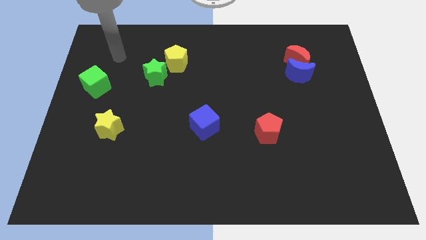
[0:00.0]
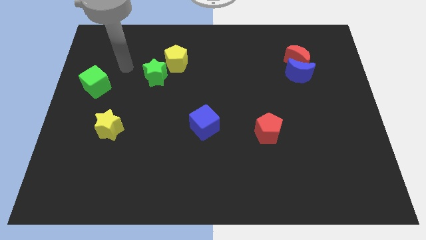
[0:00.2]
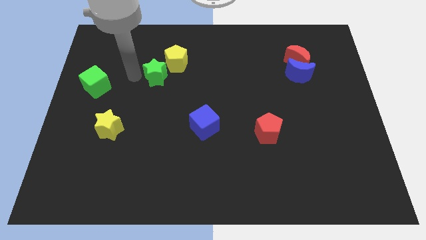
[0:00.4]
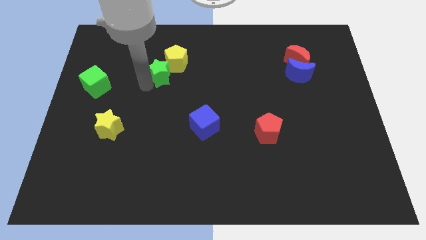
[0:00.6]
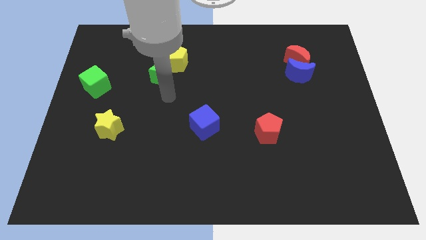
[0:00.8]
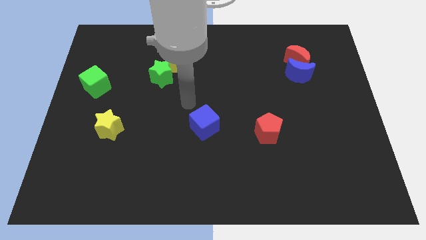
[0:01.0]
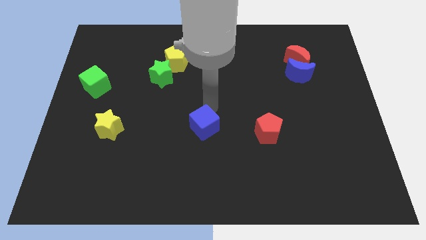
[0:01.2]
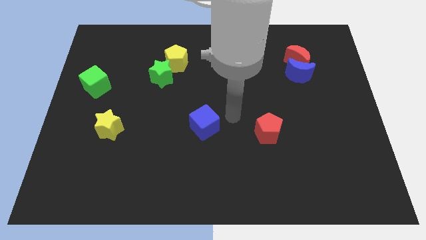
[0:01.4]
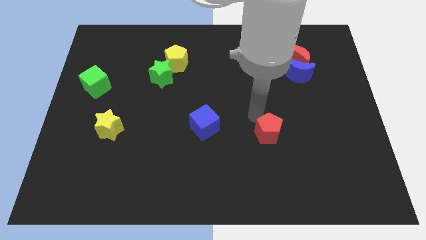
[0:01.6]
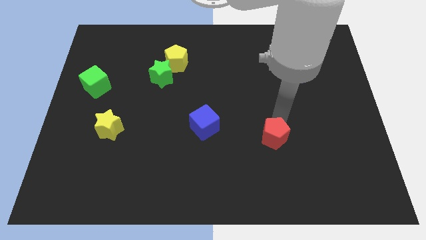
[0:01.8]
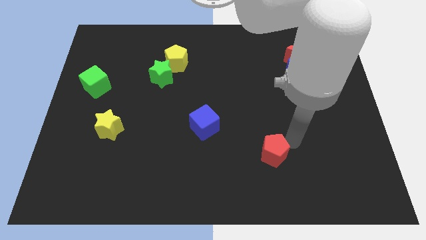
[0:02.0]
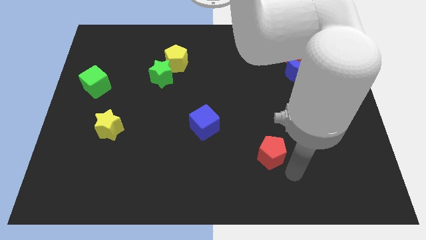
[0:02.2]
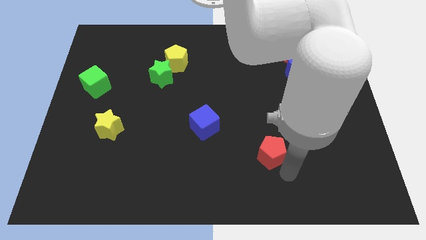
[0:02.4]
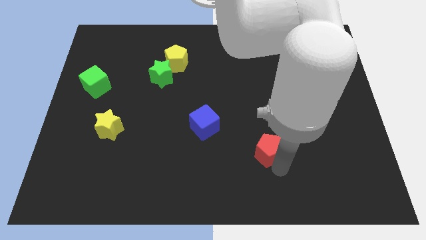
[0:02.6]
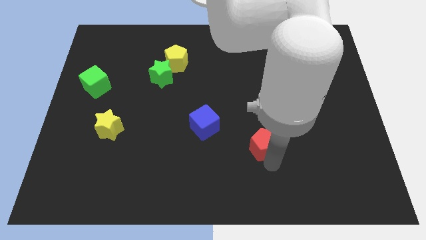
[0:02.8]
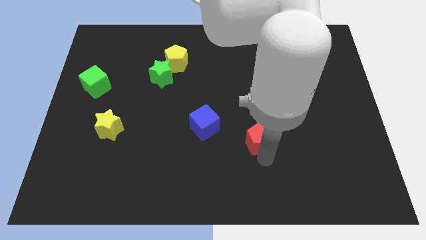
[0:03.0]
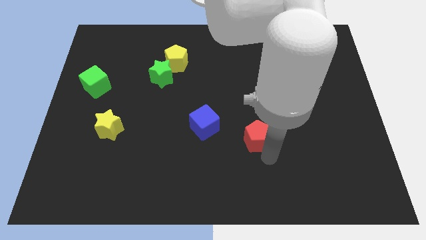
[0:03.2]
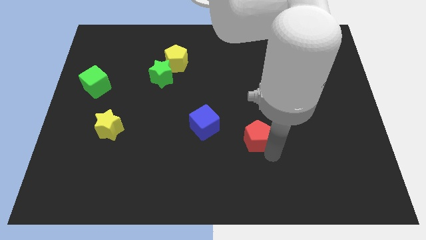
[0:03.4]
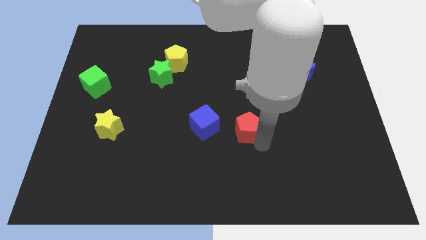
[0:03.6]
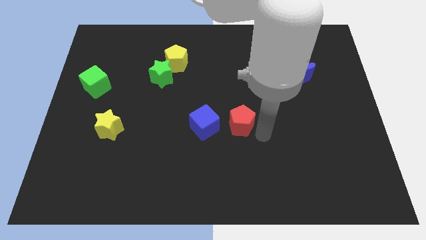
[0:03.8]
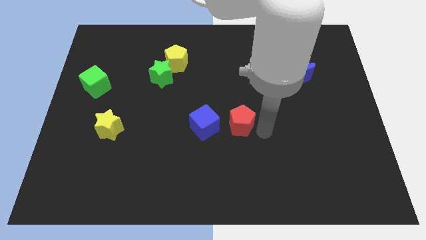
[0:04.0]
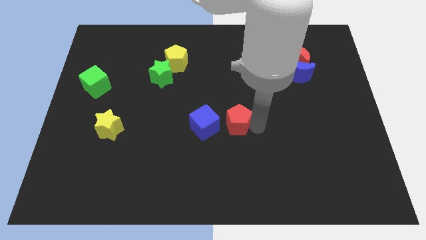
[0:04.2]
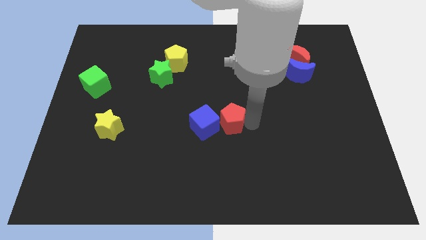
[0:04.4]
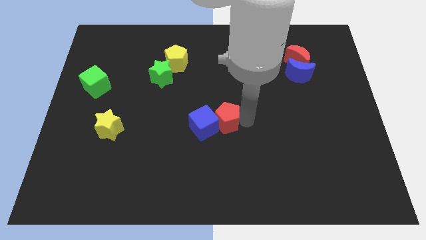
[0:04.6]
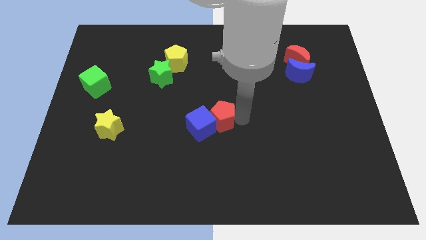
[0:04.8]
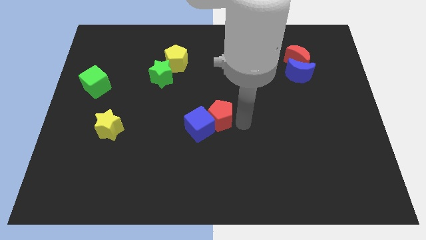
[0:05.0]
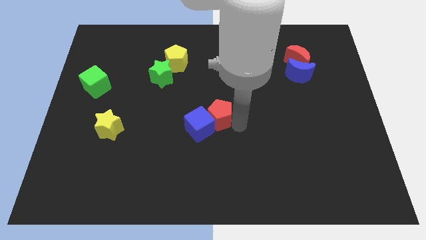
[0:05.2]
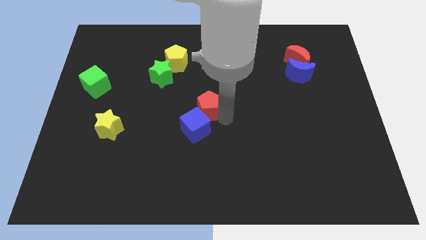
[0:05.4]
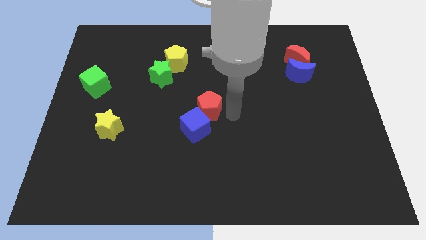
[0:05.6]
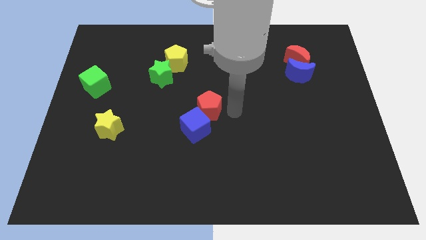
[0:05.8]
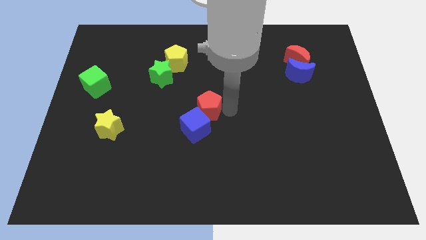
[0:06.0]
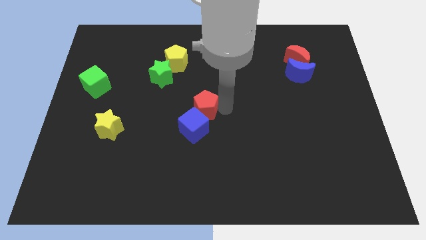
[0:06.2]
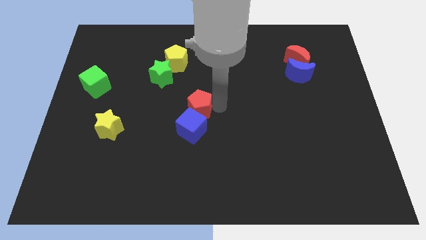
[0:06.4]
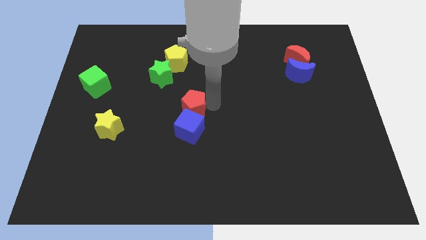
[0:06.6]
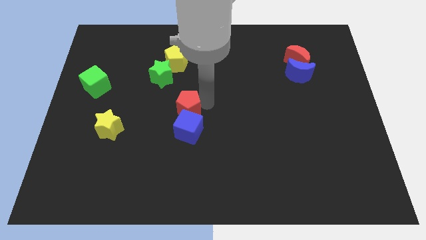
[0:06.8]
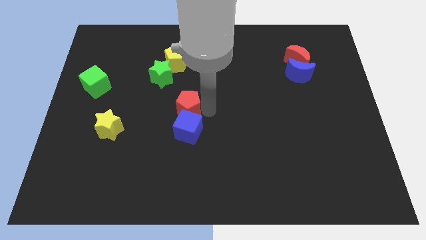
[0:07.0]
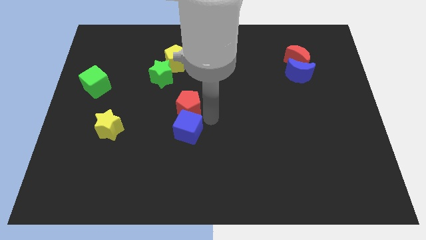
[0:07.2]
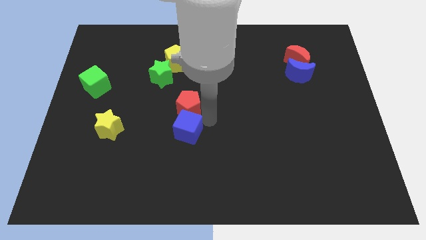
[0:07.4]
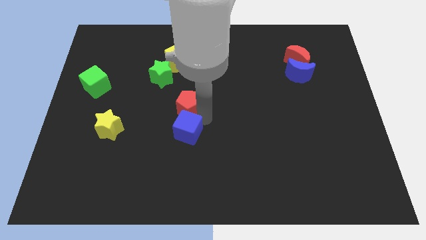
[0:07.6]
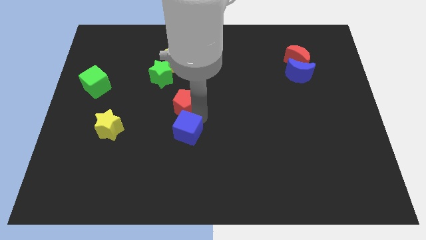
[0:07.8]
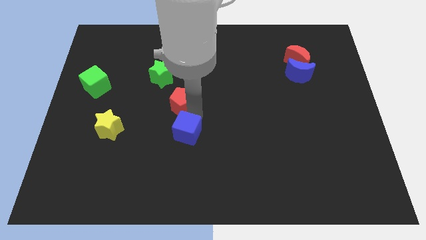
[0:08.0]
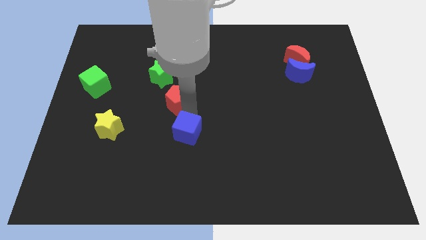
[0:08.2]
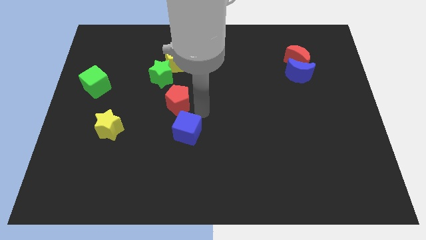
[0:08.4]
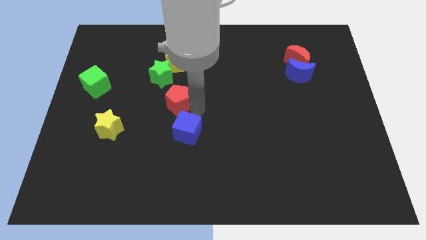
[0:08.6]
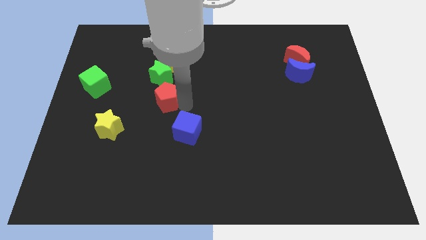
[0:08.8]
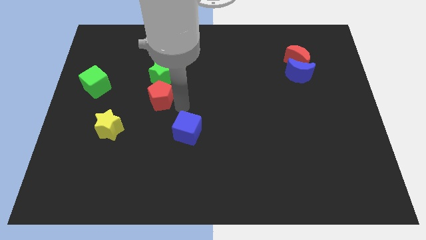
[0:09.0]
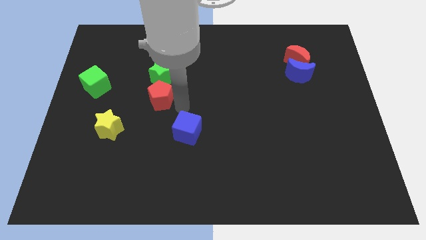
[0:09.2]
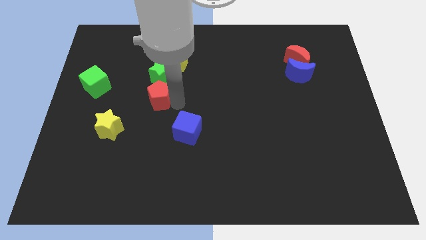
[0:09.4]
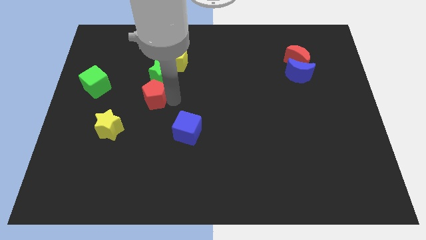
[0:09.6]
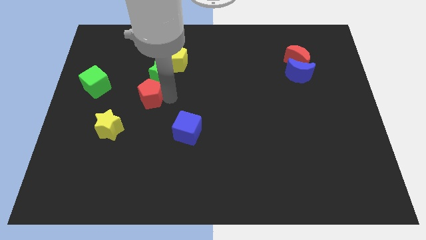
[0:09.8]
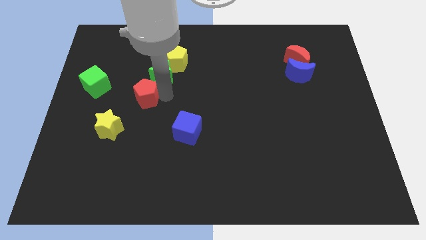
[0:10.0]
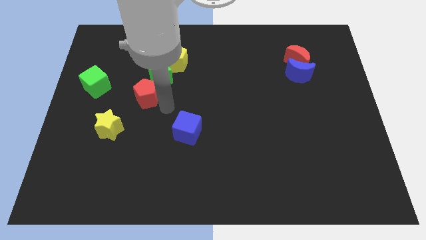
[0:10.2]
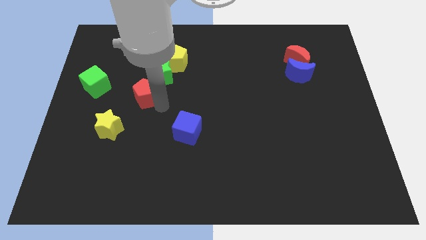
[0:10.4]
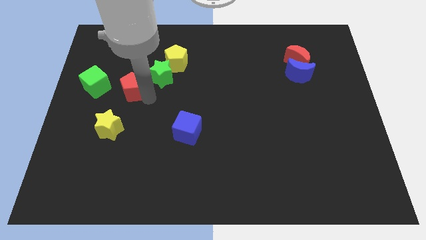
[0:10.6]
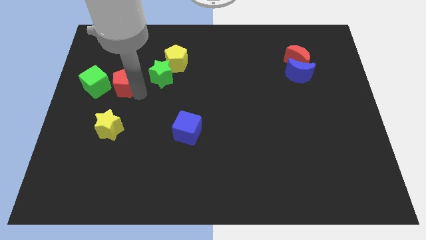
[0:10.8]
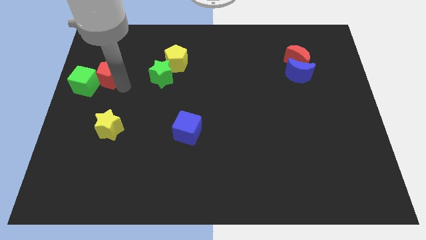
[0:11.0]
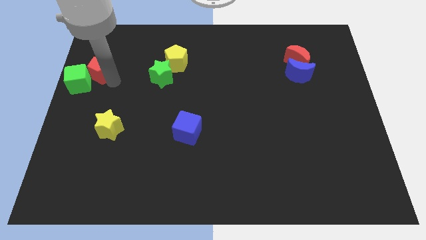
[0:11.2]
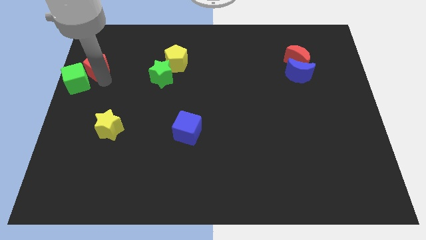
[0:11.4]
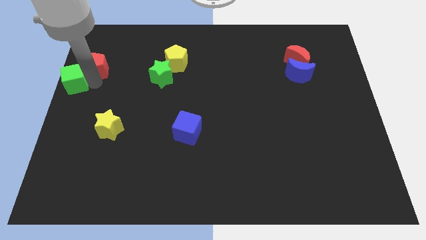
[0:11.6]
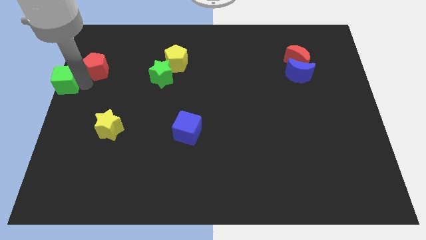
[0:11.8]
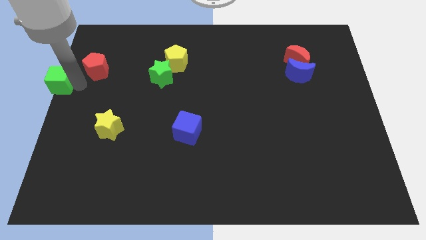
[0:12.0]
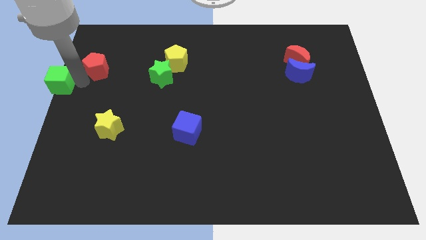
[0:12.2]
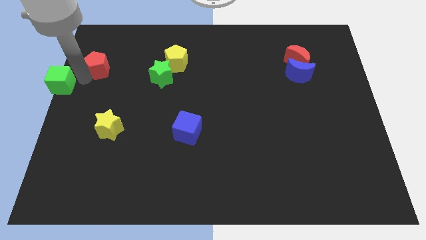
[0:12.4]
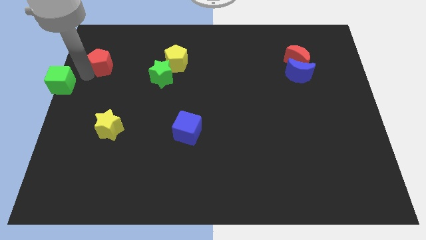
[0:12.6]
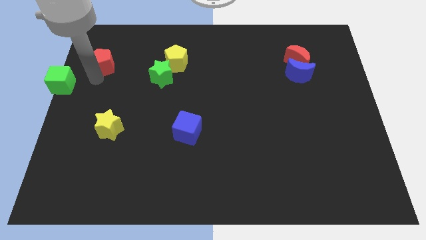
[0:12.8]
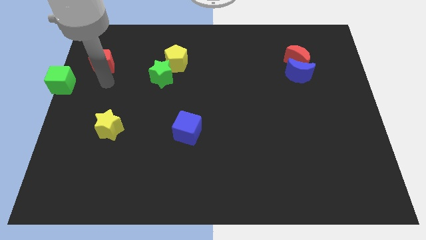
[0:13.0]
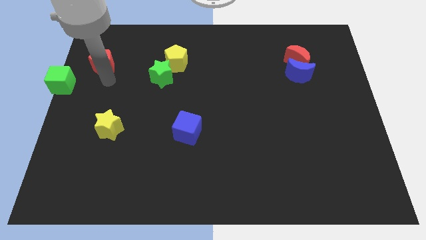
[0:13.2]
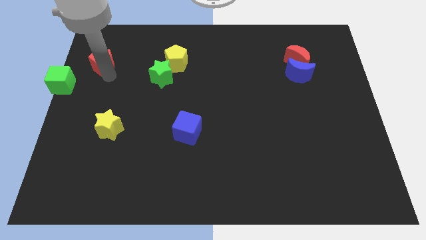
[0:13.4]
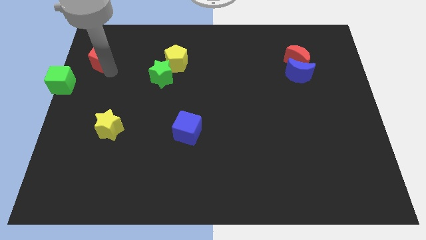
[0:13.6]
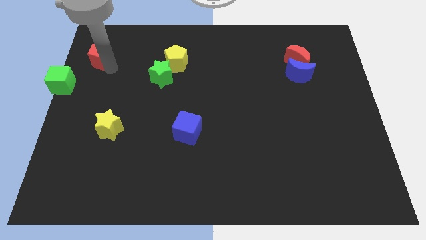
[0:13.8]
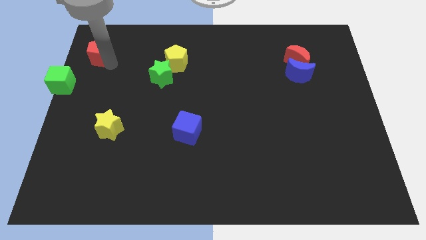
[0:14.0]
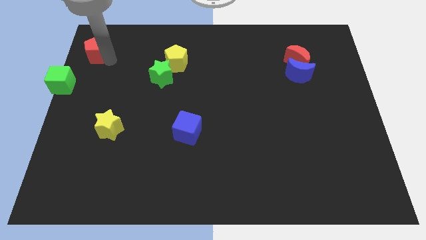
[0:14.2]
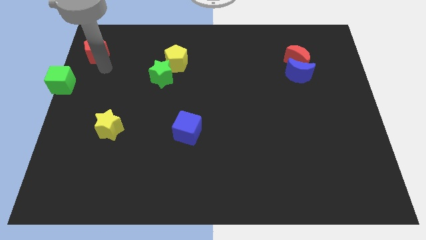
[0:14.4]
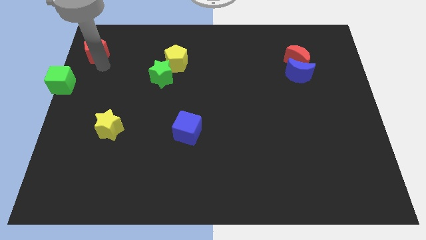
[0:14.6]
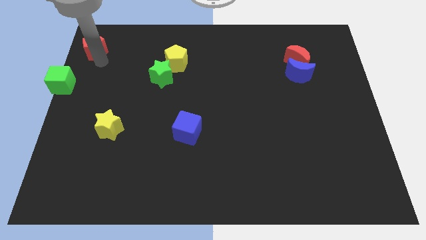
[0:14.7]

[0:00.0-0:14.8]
put the red pentagon to the upper left corner
